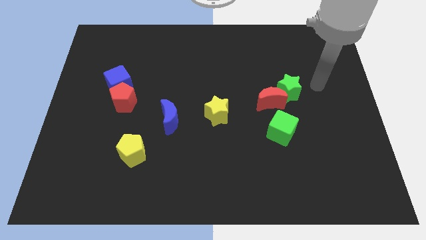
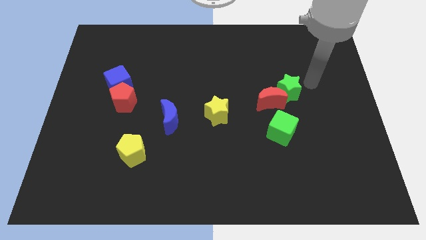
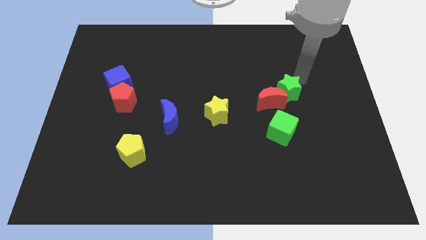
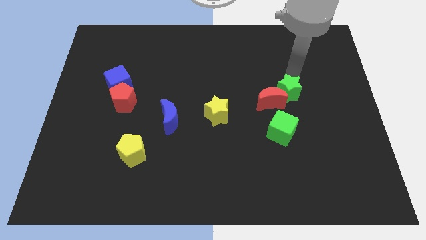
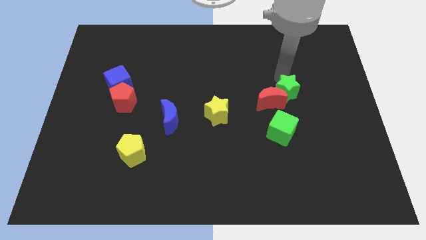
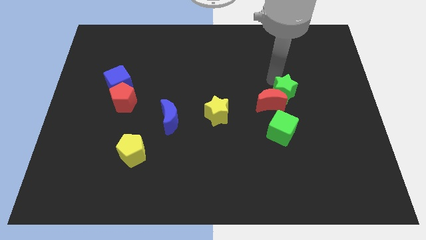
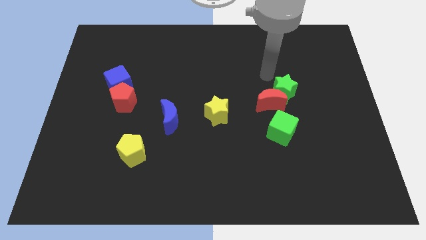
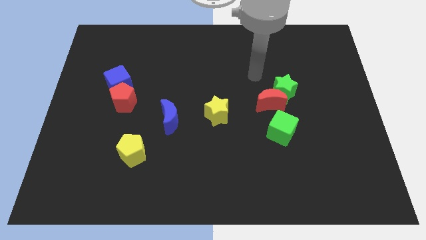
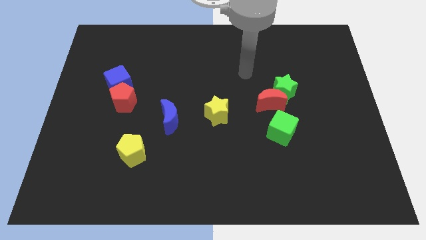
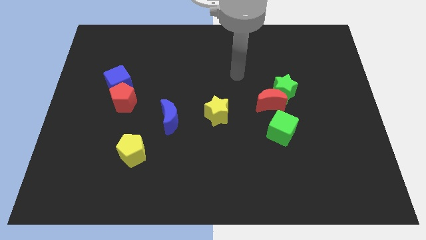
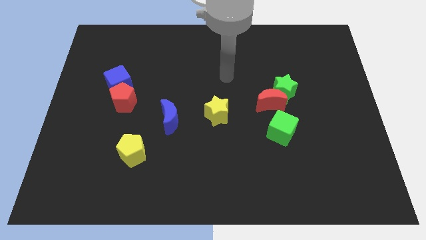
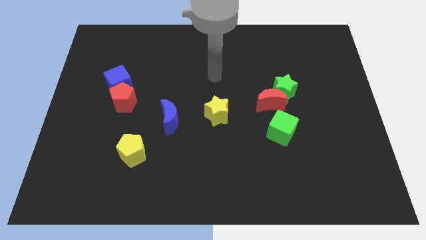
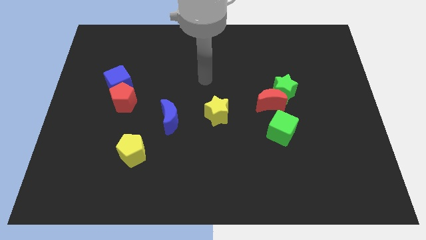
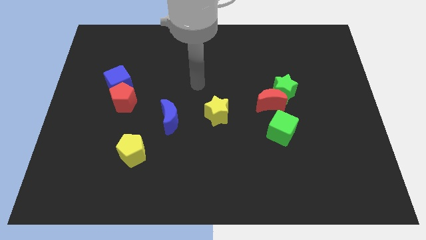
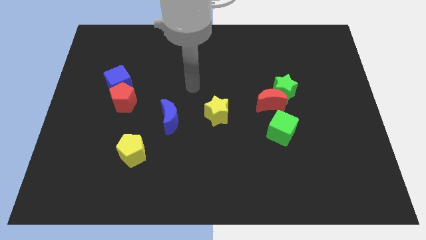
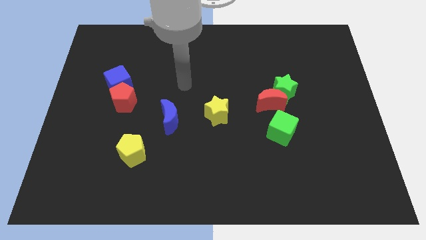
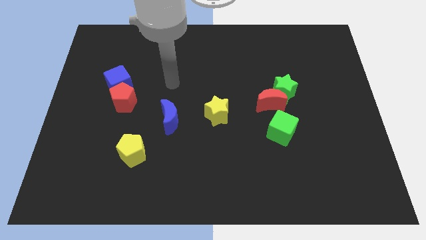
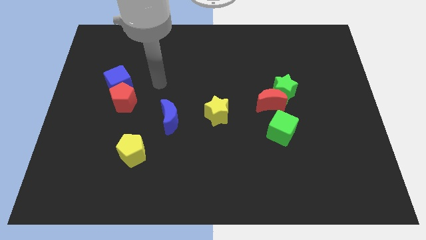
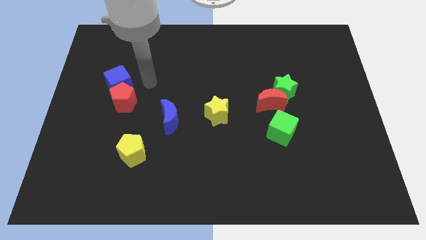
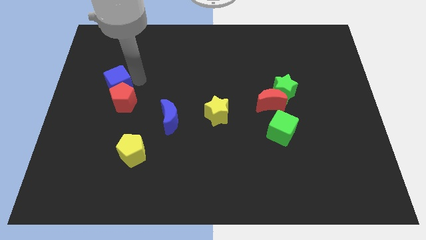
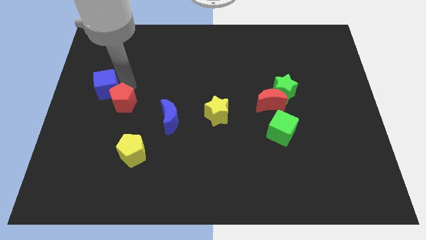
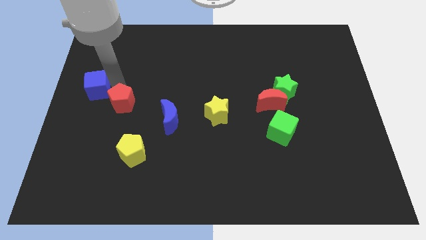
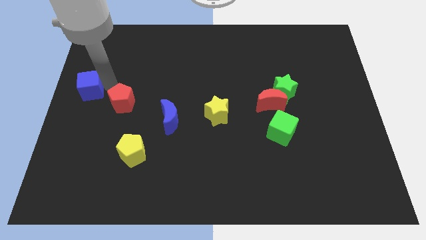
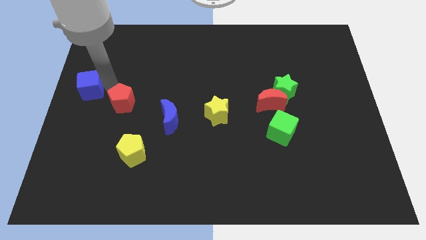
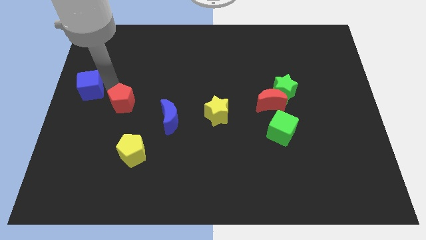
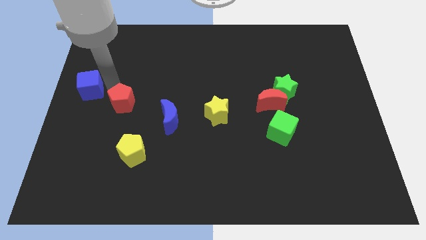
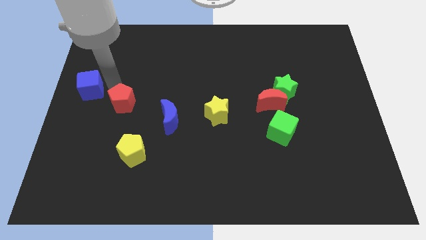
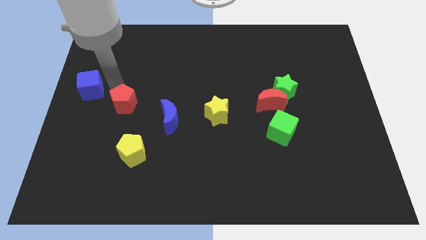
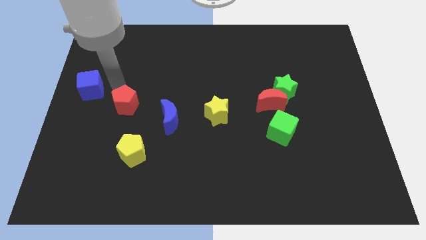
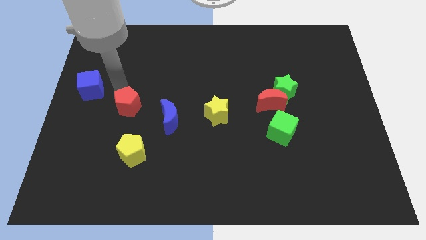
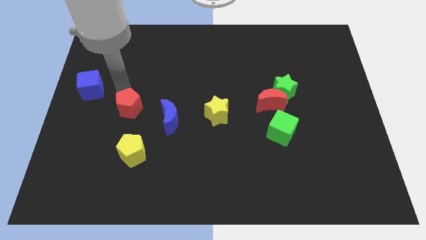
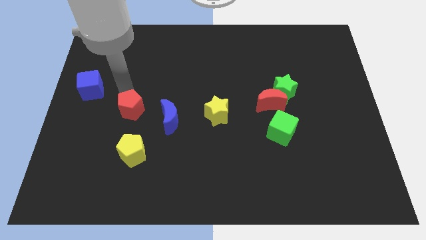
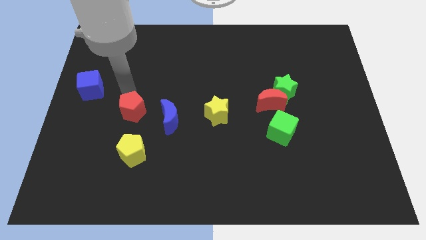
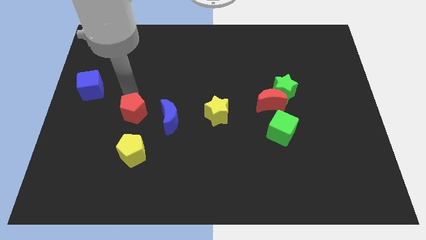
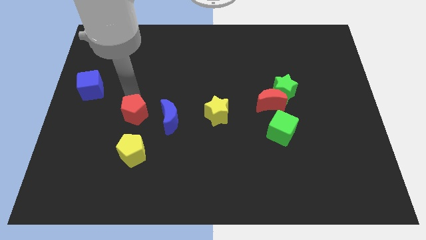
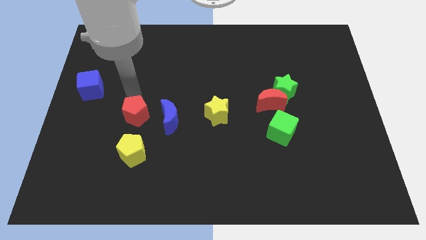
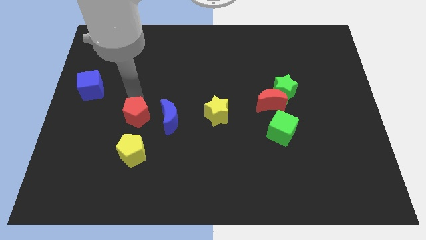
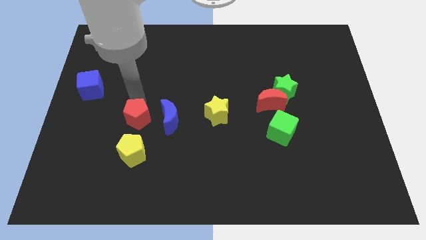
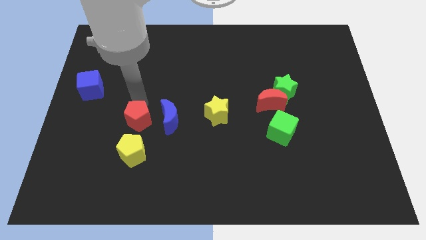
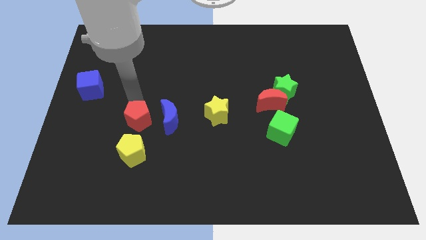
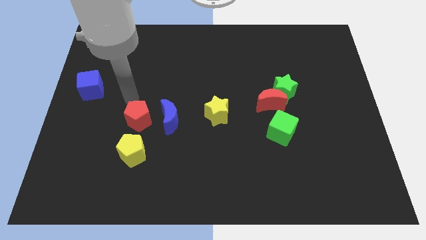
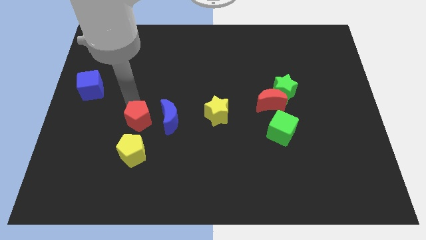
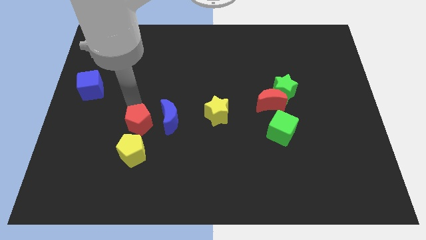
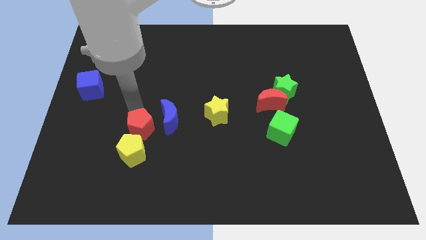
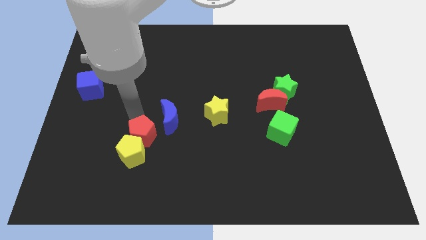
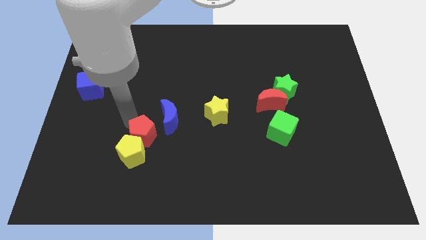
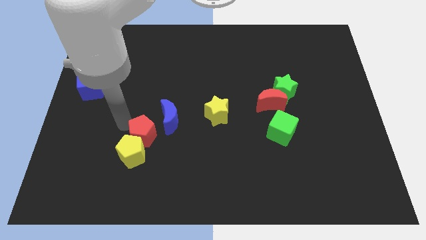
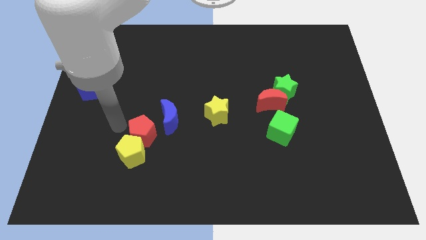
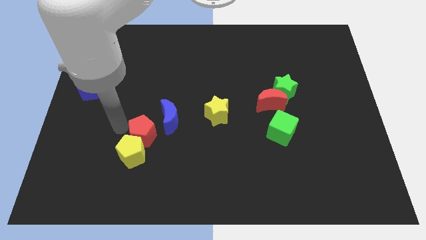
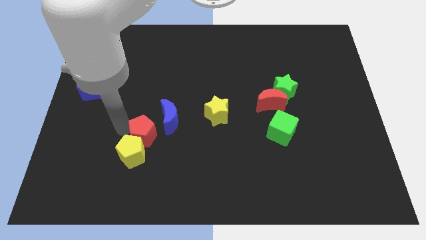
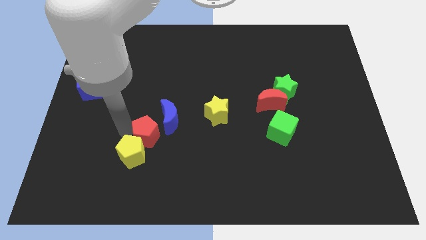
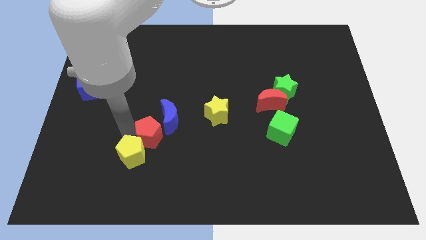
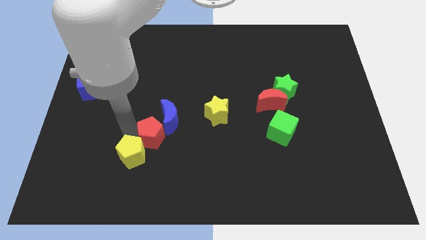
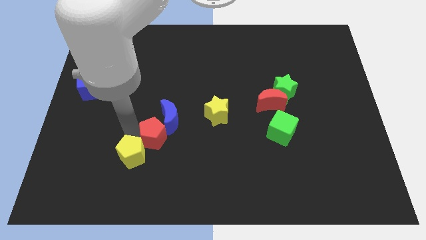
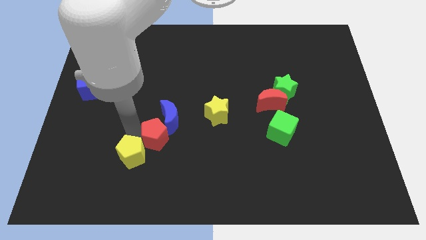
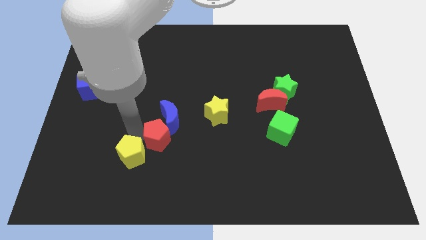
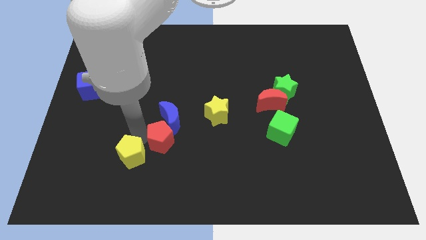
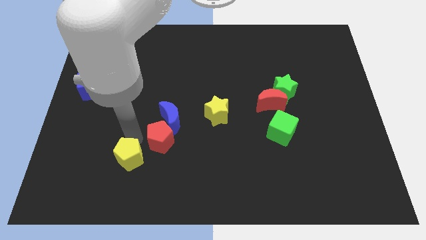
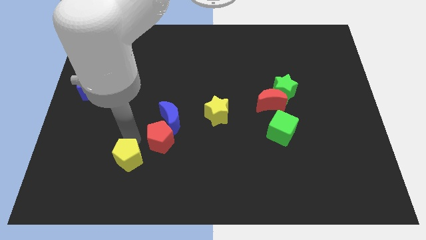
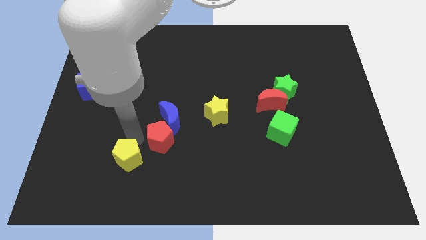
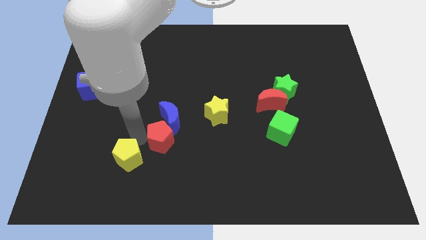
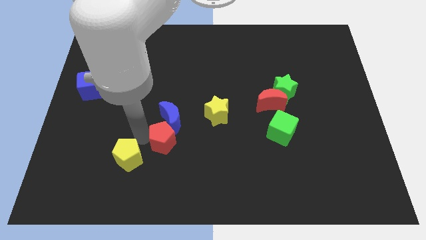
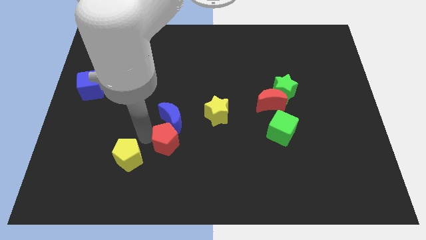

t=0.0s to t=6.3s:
push the red pentagon to the bottom right side of the blue moon

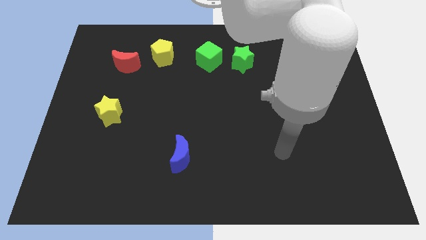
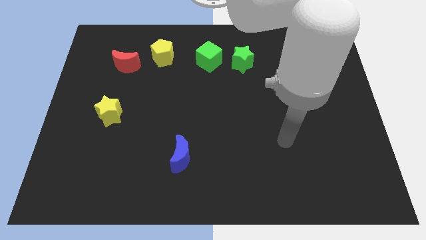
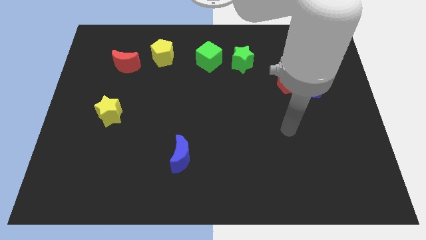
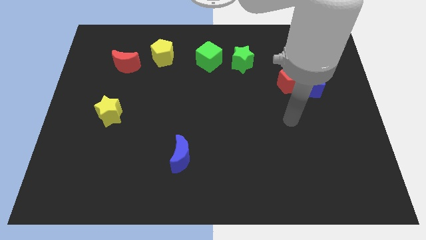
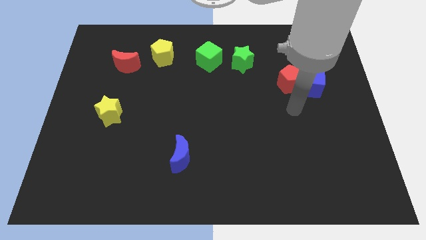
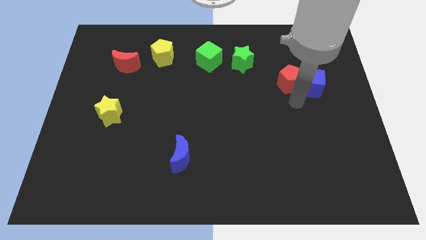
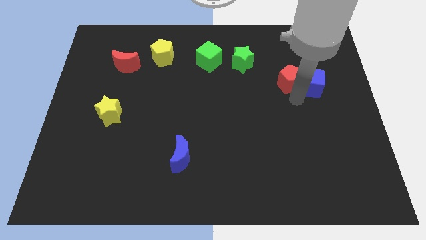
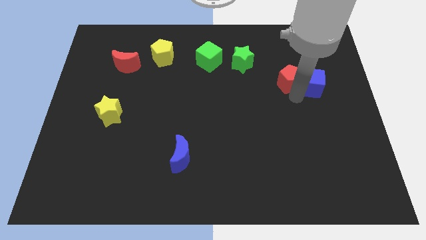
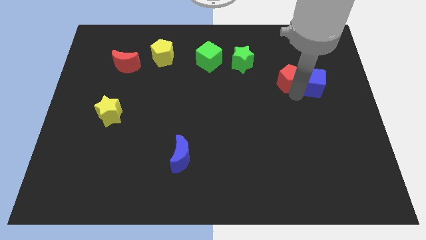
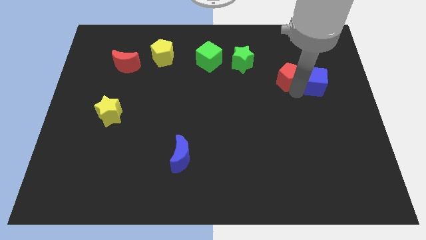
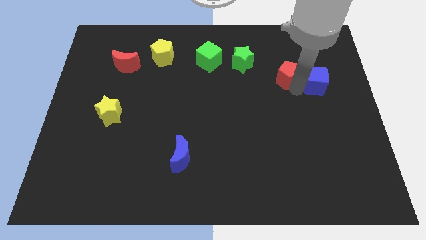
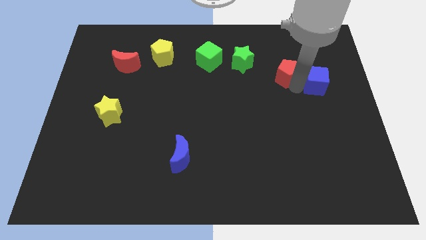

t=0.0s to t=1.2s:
put the red pentagon just right of the green star

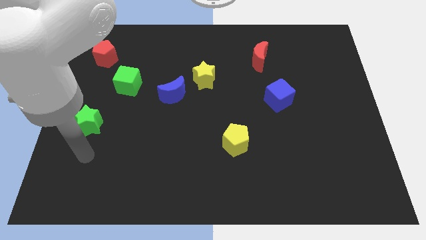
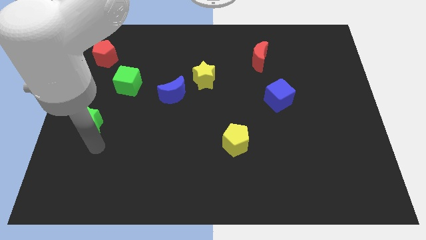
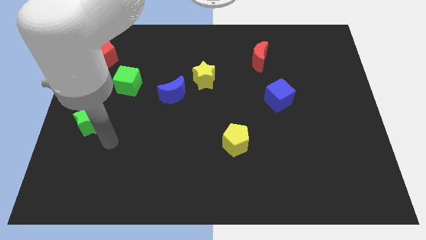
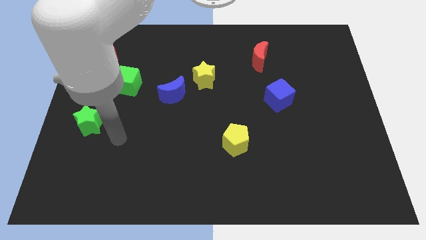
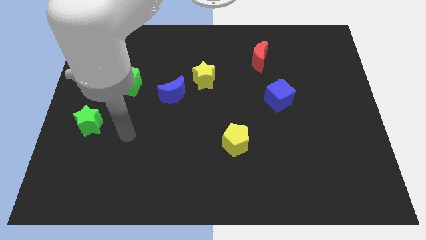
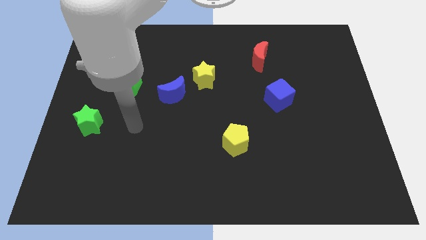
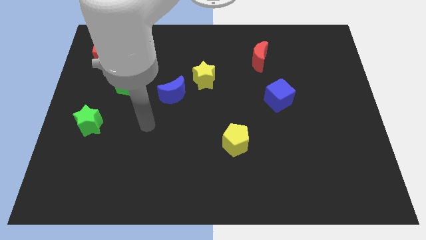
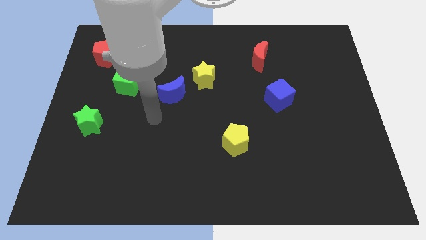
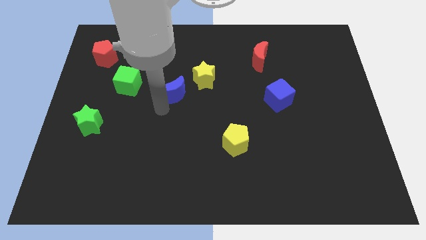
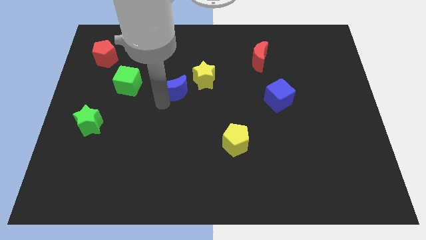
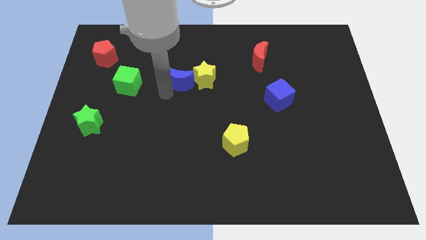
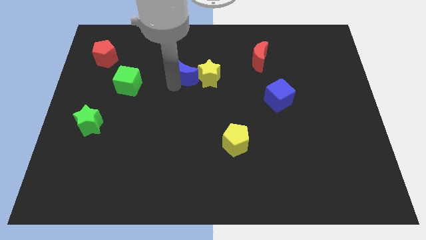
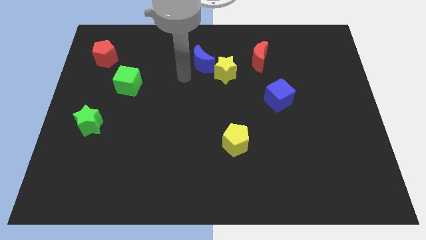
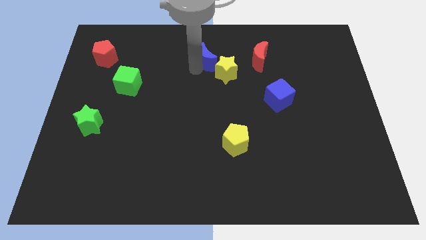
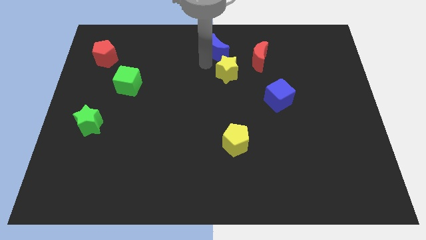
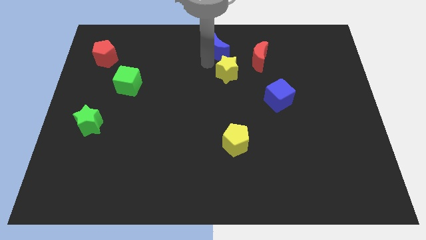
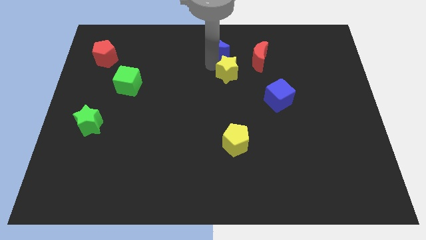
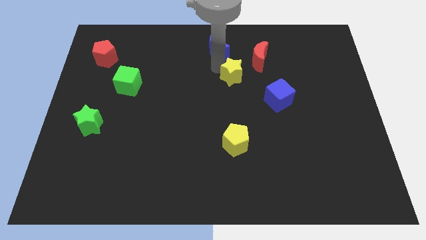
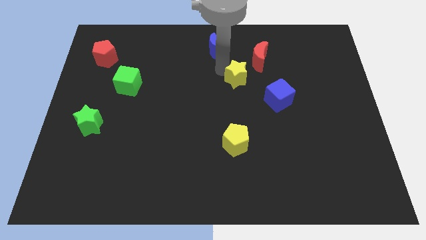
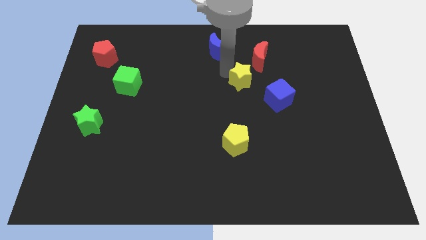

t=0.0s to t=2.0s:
push the yellow star below the red moon
